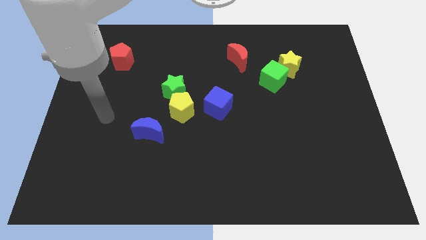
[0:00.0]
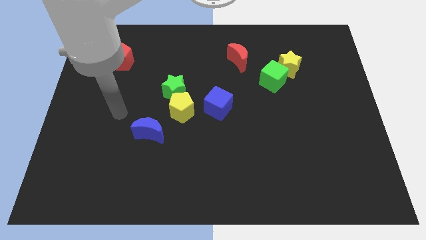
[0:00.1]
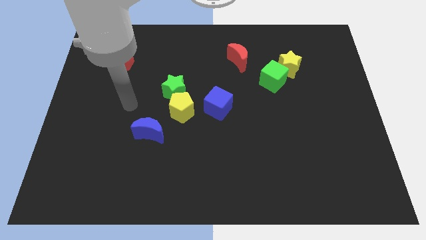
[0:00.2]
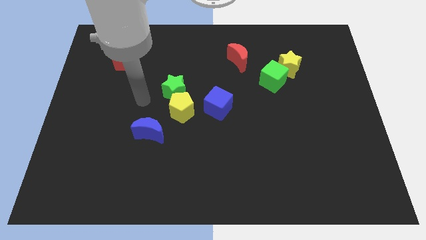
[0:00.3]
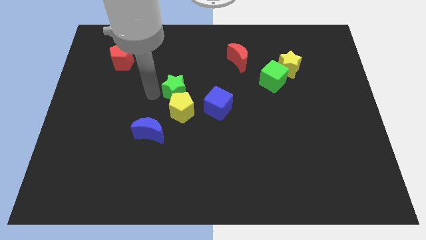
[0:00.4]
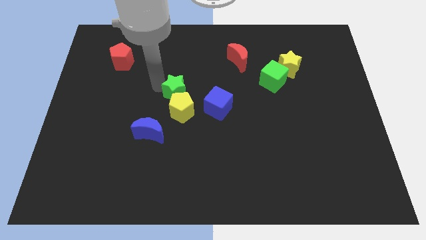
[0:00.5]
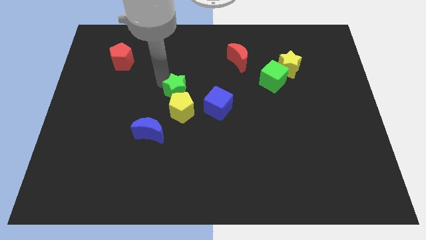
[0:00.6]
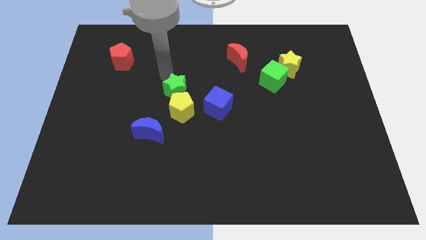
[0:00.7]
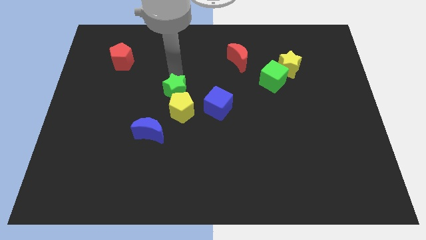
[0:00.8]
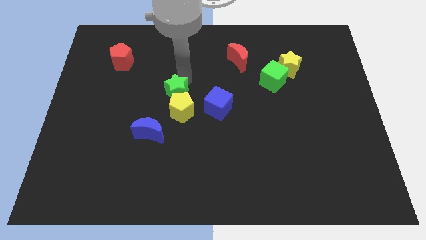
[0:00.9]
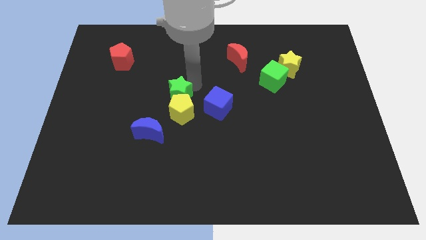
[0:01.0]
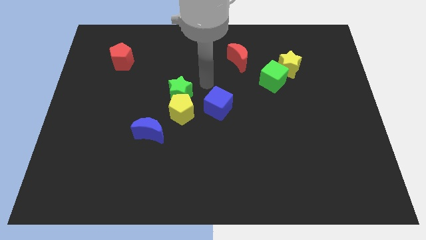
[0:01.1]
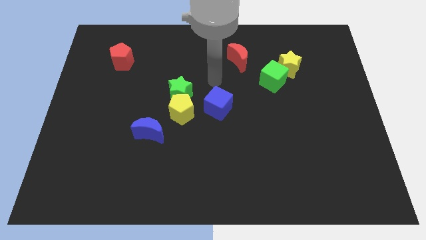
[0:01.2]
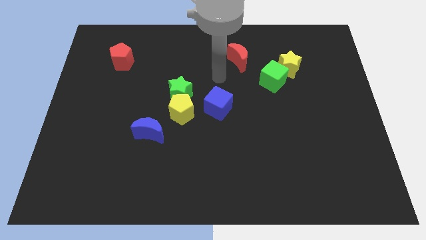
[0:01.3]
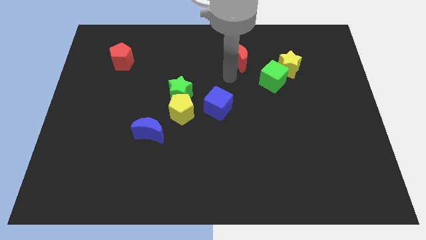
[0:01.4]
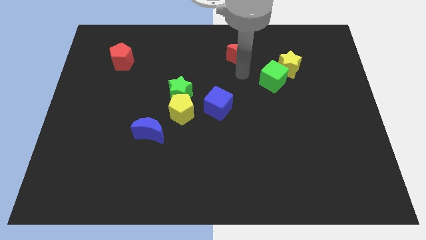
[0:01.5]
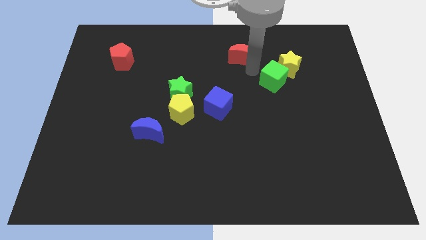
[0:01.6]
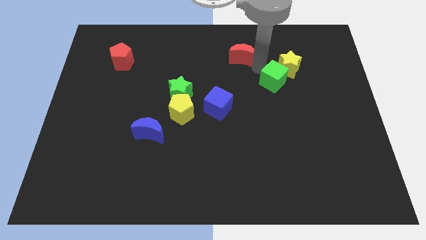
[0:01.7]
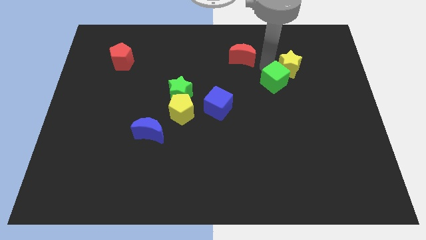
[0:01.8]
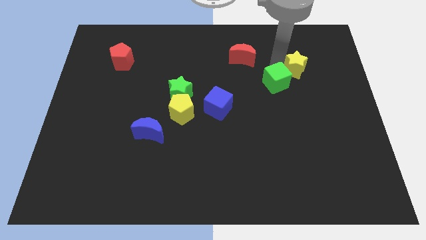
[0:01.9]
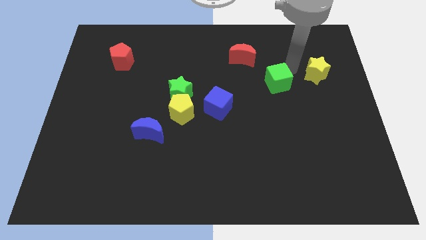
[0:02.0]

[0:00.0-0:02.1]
separate the green cube from the yellow star

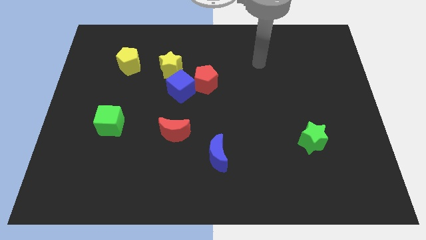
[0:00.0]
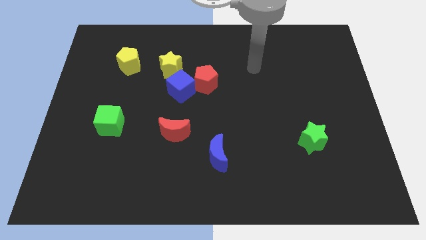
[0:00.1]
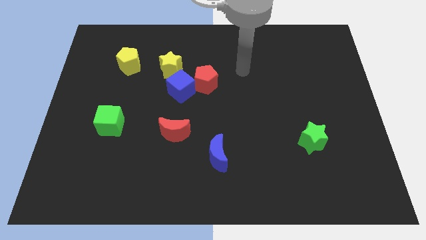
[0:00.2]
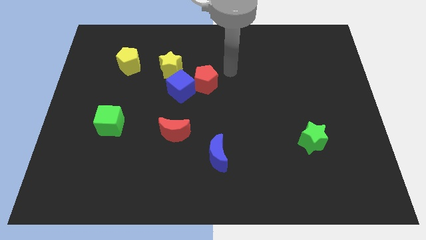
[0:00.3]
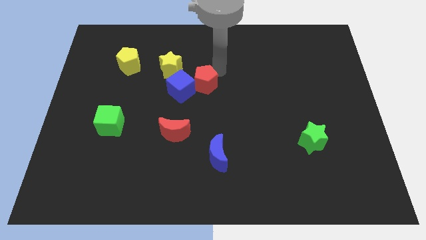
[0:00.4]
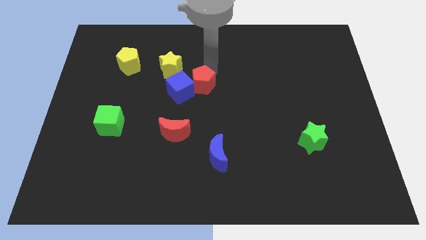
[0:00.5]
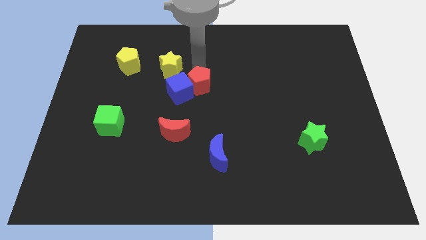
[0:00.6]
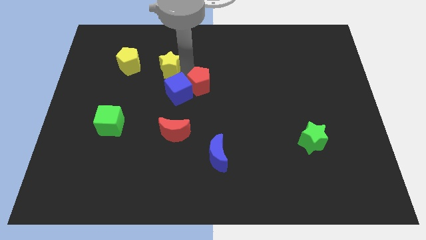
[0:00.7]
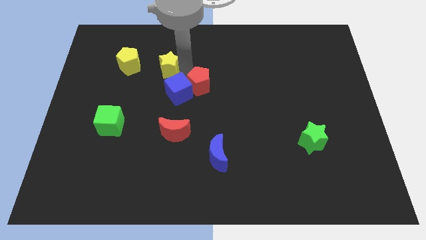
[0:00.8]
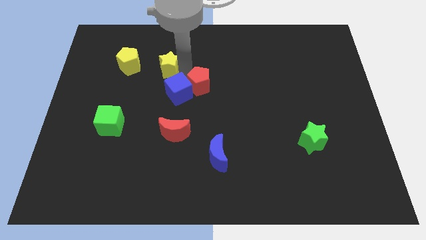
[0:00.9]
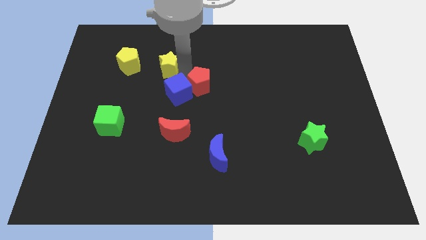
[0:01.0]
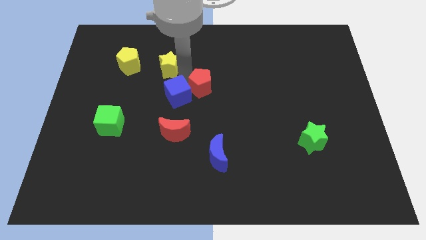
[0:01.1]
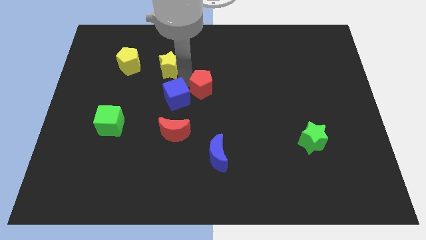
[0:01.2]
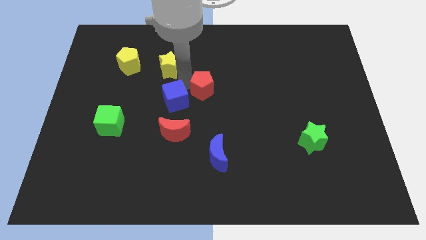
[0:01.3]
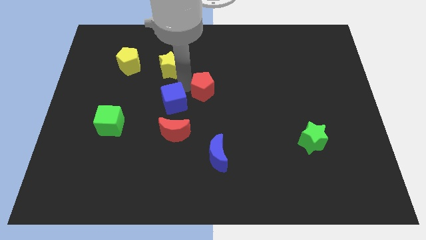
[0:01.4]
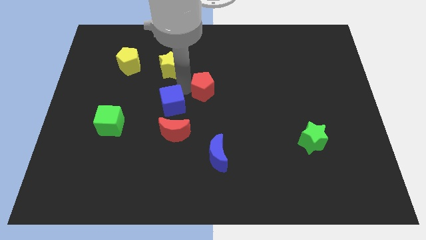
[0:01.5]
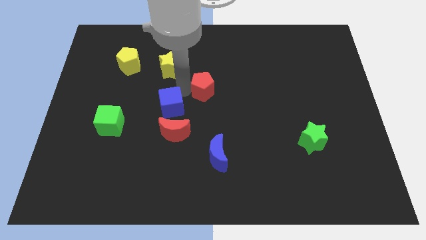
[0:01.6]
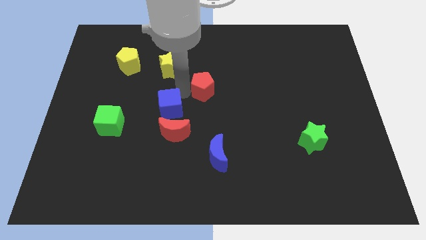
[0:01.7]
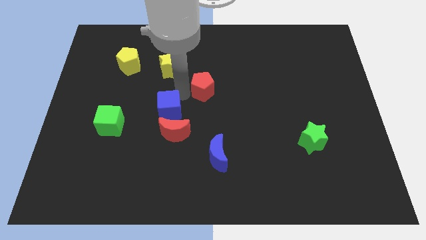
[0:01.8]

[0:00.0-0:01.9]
pull the blue cube apart from the red pentagon and yellow star

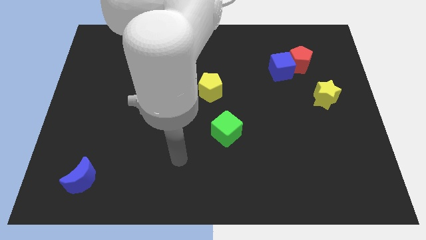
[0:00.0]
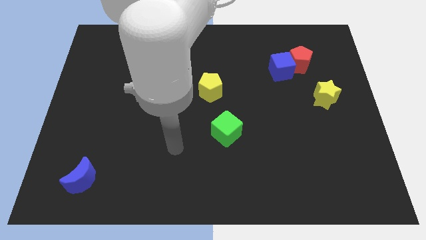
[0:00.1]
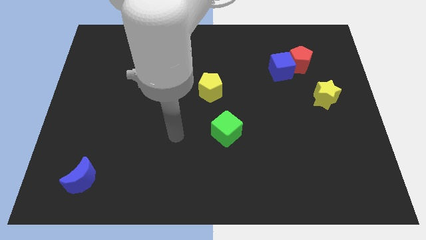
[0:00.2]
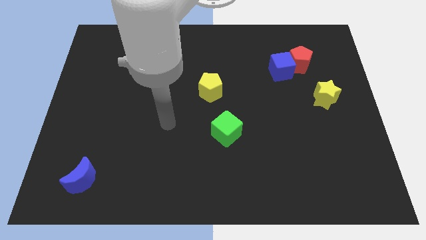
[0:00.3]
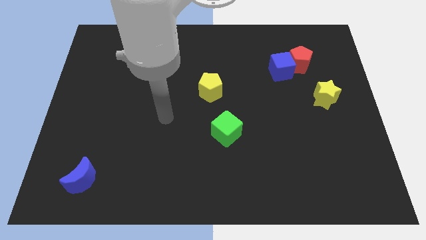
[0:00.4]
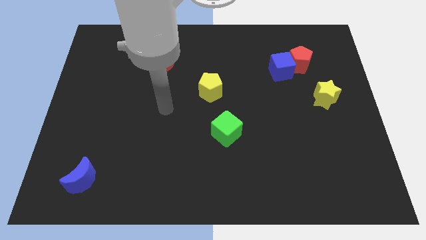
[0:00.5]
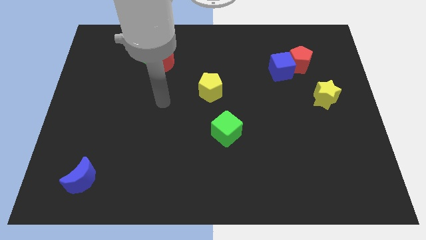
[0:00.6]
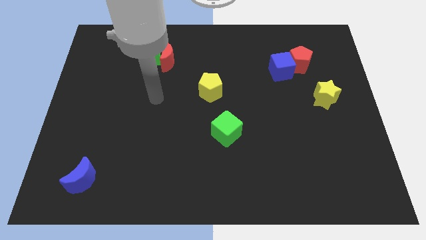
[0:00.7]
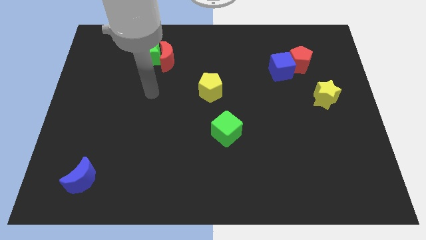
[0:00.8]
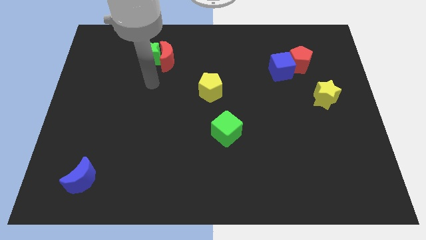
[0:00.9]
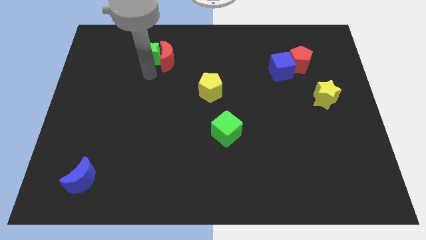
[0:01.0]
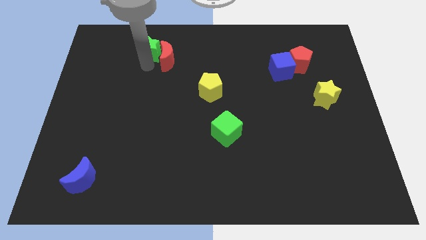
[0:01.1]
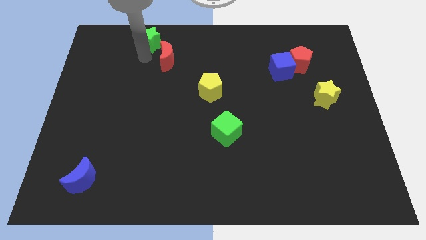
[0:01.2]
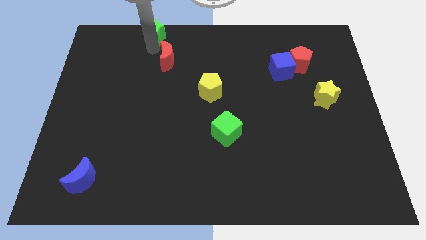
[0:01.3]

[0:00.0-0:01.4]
separate the red moon from the green star

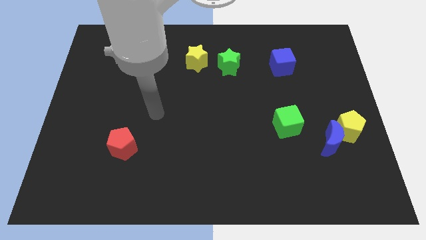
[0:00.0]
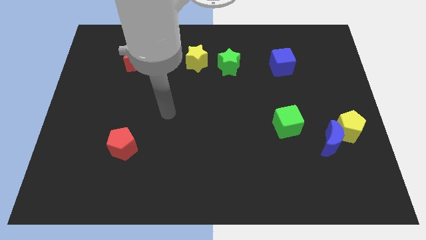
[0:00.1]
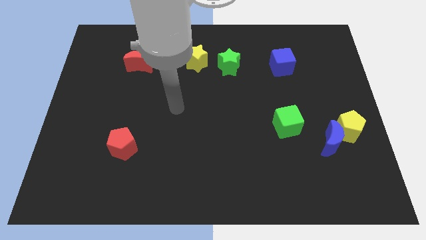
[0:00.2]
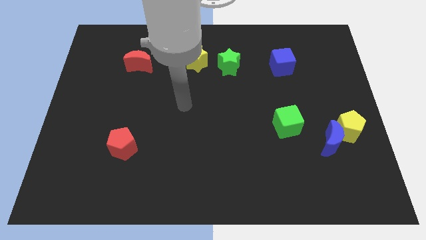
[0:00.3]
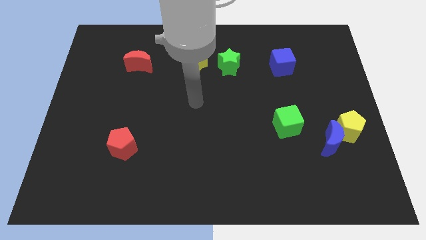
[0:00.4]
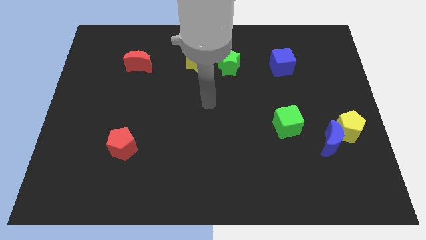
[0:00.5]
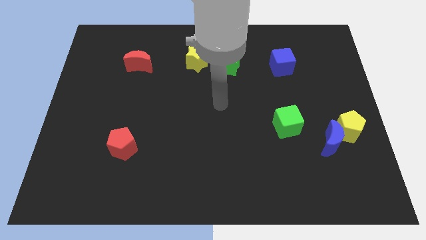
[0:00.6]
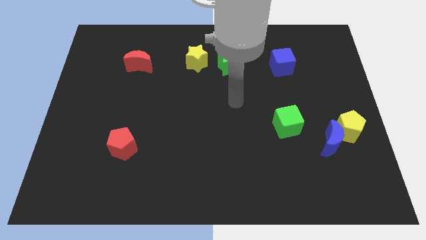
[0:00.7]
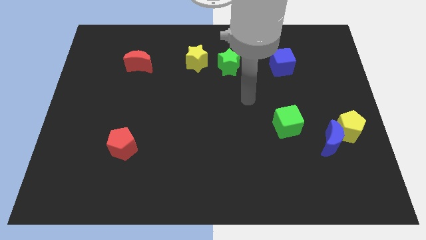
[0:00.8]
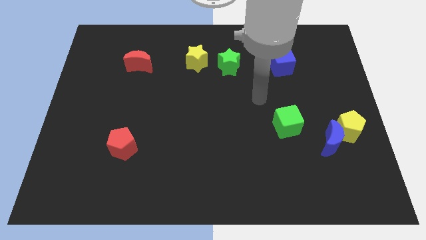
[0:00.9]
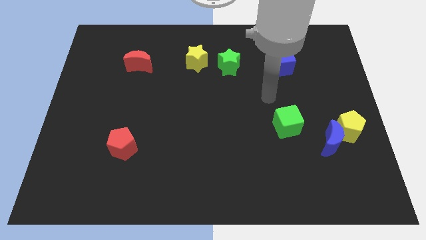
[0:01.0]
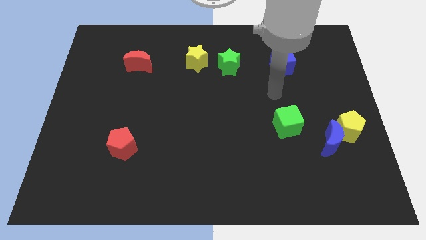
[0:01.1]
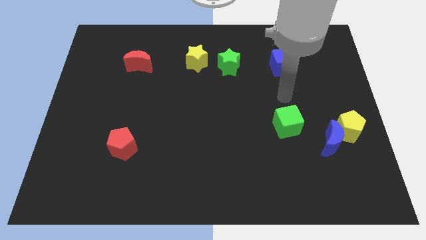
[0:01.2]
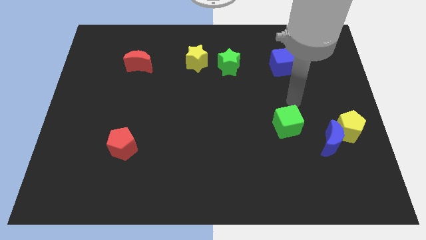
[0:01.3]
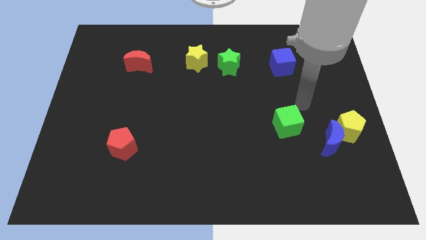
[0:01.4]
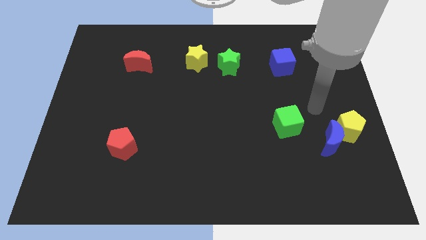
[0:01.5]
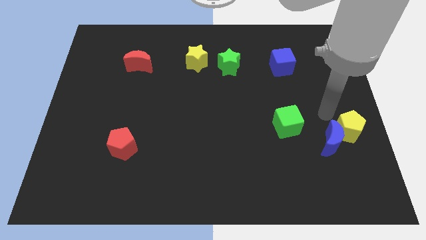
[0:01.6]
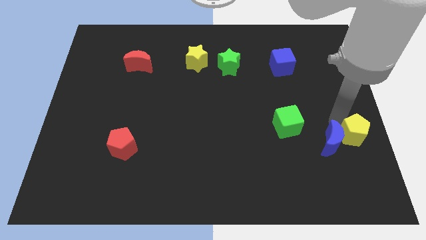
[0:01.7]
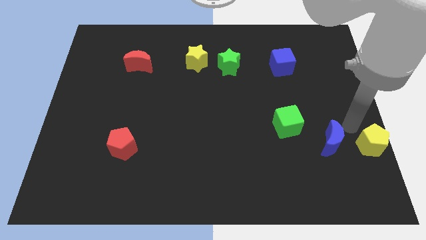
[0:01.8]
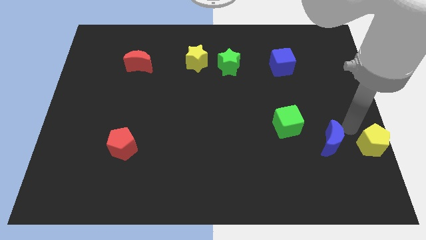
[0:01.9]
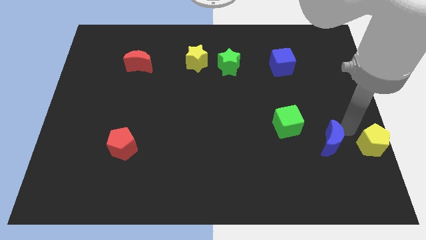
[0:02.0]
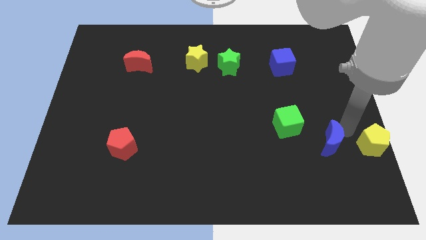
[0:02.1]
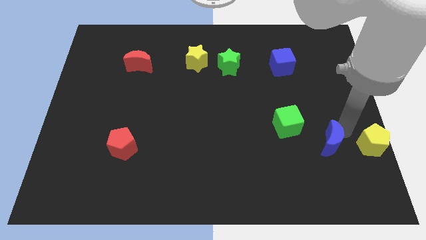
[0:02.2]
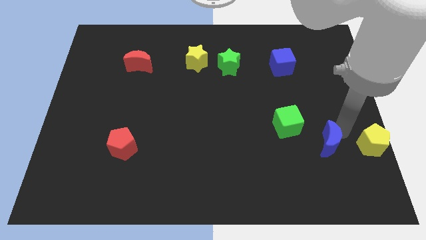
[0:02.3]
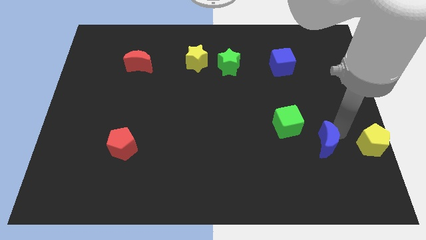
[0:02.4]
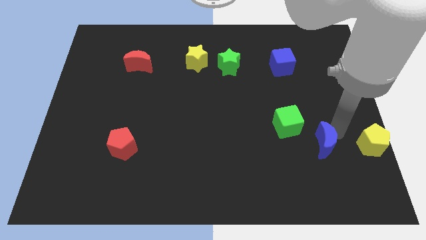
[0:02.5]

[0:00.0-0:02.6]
move the blue moon away from the yellow pentagon

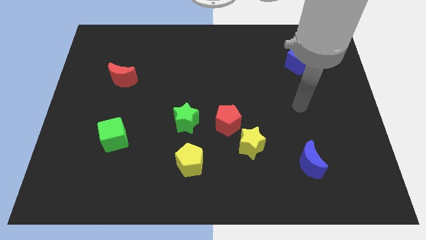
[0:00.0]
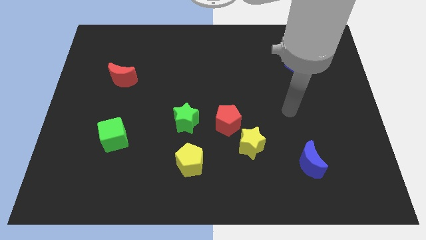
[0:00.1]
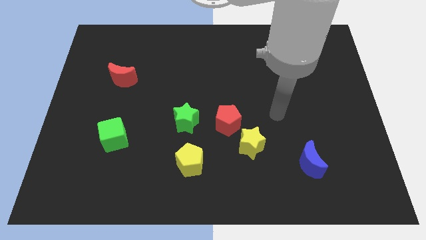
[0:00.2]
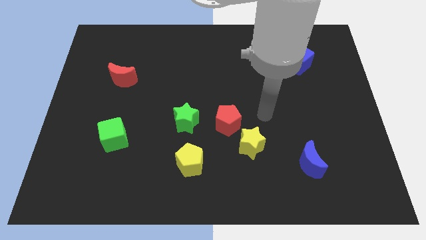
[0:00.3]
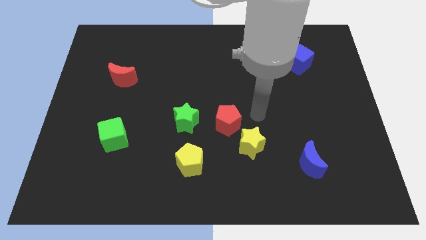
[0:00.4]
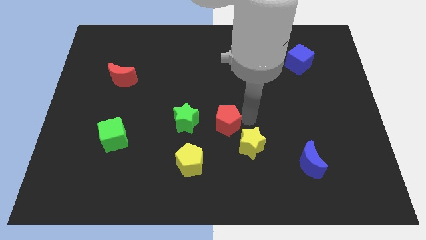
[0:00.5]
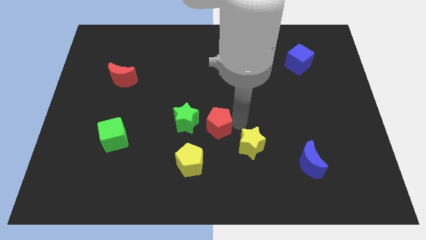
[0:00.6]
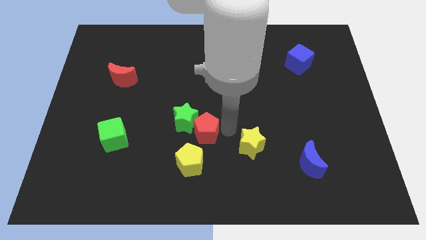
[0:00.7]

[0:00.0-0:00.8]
move the yellow star away from the red pentagon

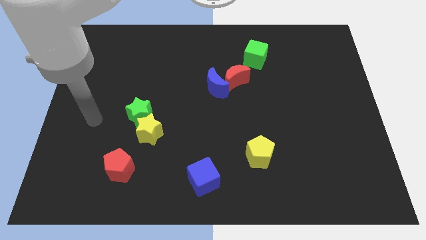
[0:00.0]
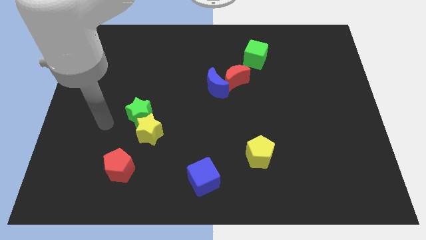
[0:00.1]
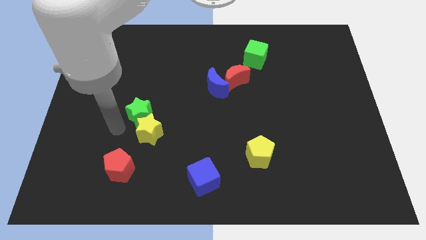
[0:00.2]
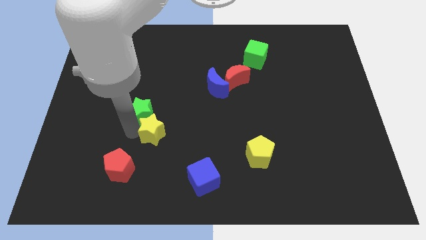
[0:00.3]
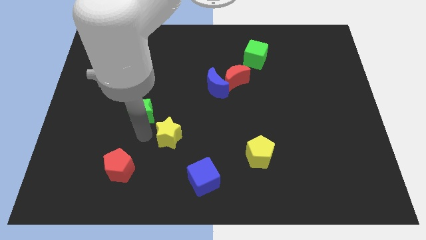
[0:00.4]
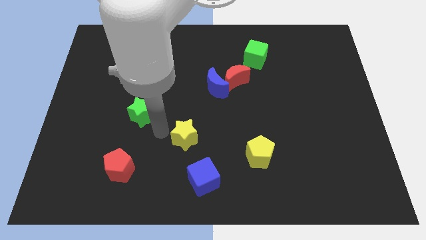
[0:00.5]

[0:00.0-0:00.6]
move the green star away from the yellow star
